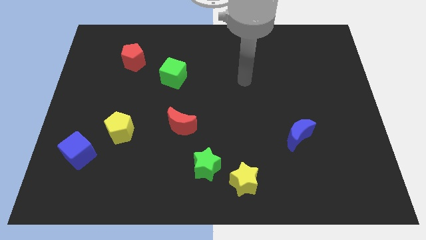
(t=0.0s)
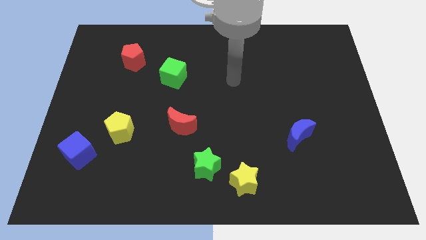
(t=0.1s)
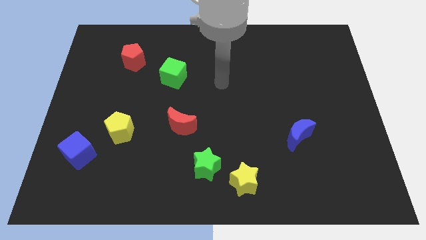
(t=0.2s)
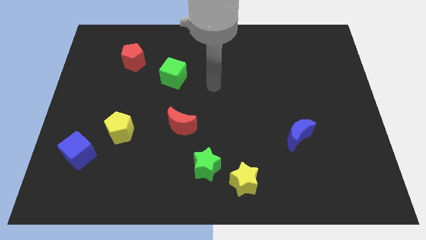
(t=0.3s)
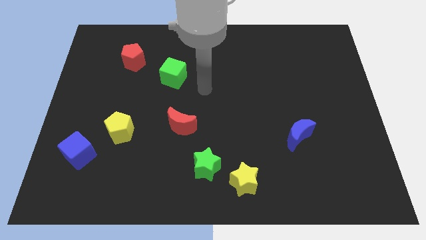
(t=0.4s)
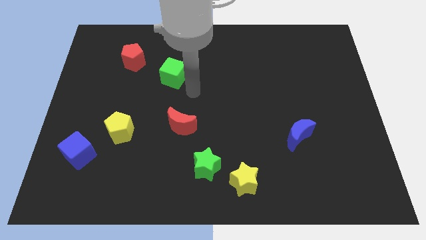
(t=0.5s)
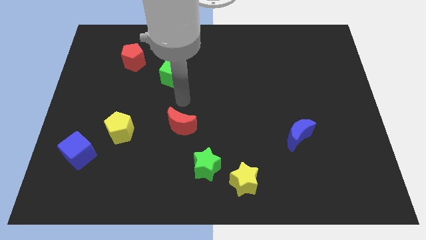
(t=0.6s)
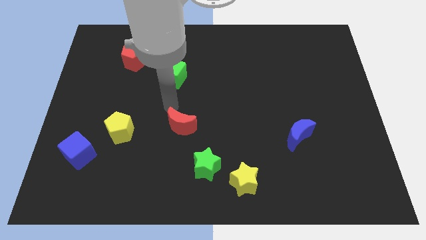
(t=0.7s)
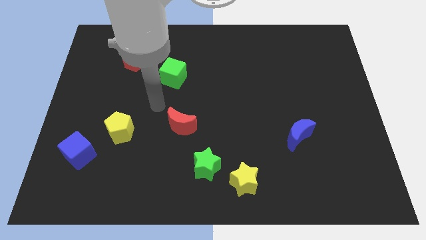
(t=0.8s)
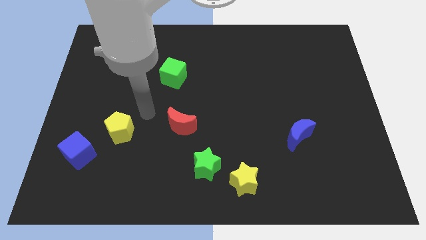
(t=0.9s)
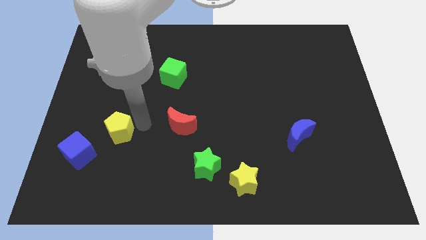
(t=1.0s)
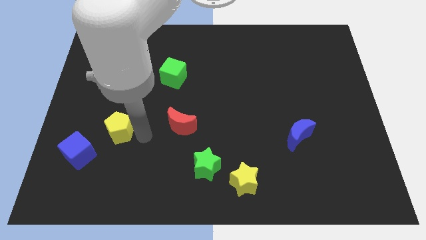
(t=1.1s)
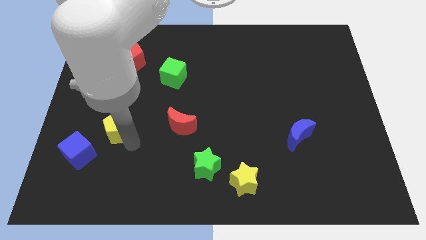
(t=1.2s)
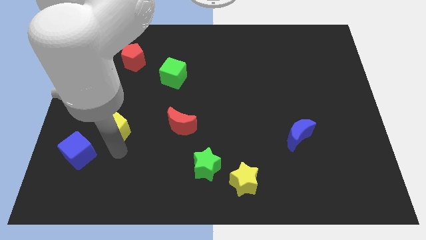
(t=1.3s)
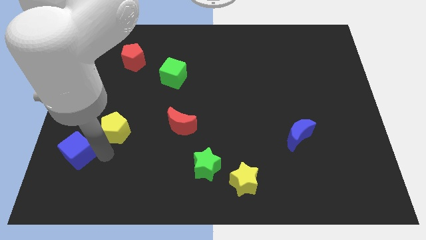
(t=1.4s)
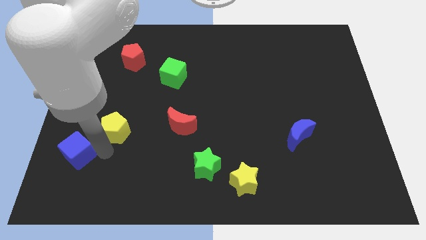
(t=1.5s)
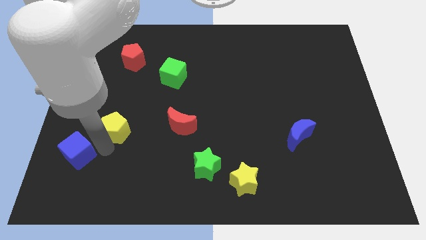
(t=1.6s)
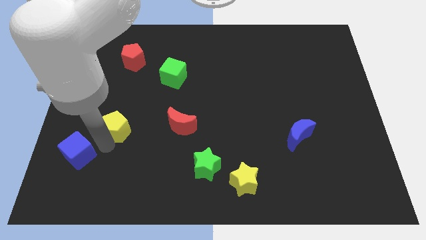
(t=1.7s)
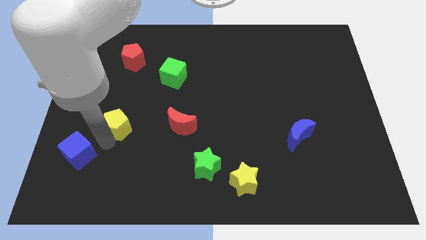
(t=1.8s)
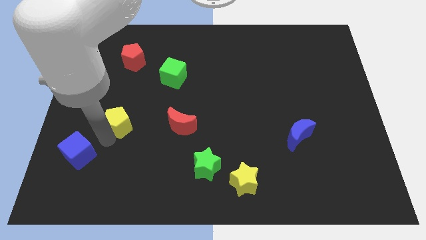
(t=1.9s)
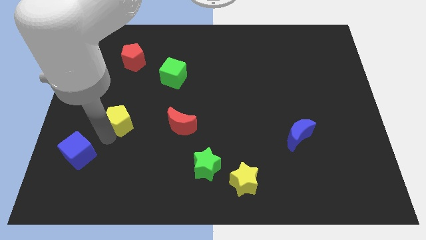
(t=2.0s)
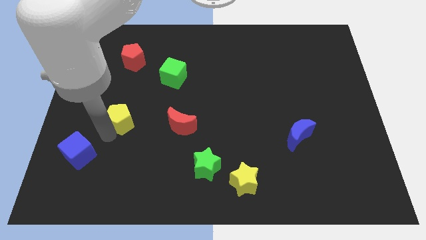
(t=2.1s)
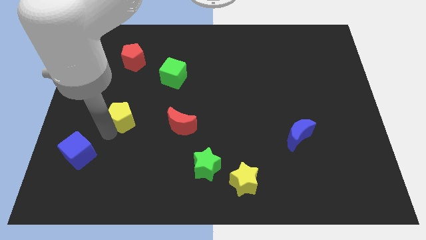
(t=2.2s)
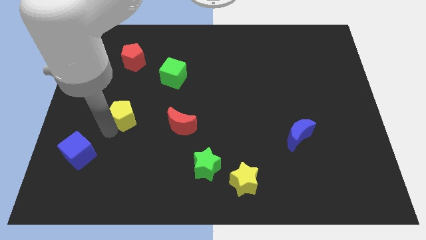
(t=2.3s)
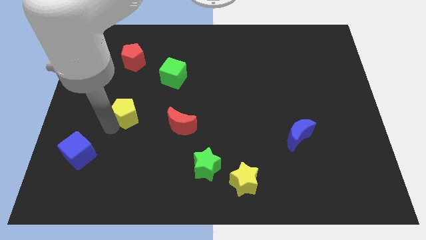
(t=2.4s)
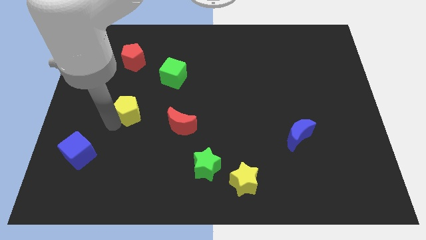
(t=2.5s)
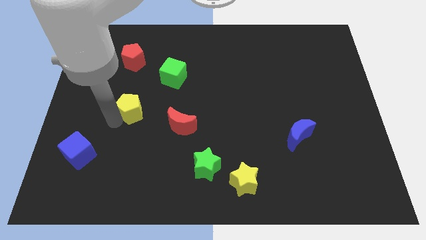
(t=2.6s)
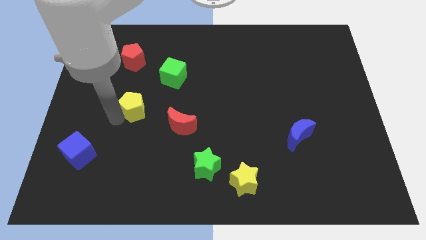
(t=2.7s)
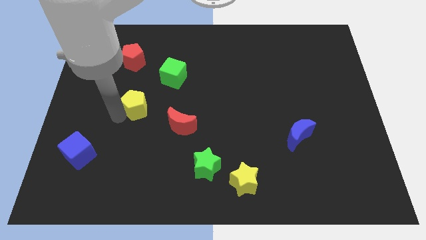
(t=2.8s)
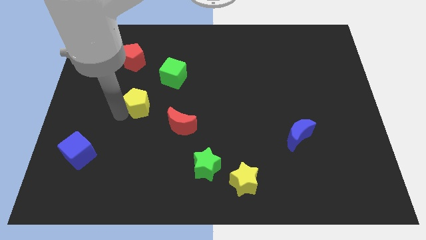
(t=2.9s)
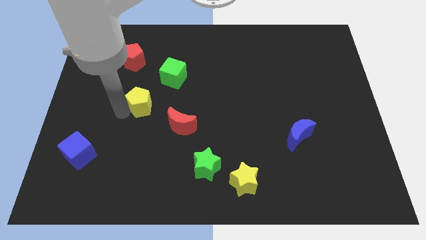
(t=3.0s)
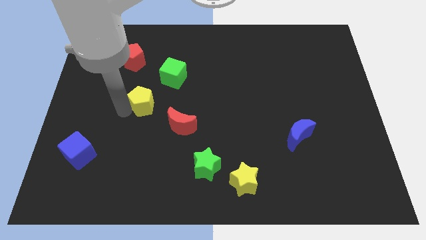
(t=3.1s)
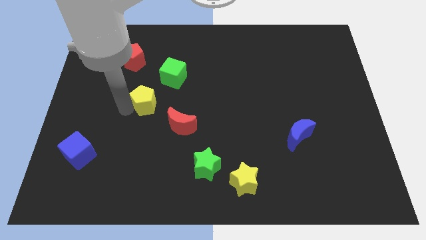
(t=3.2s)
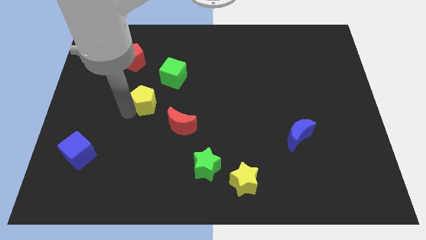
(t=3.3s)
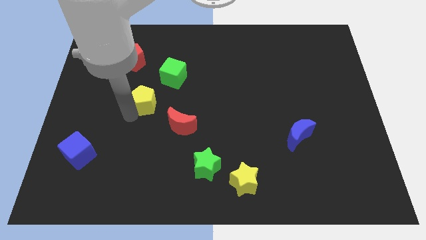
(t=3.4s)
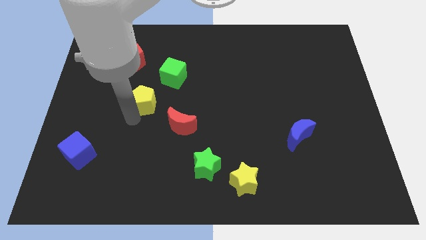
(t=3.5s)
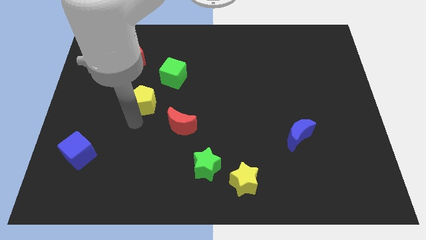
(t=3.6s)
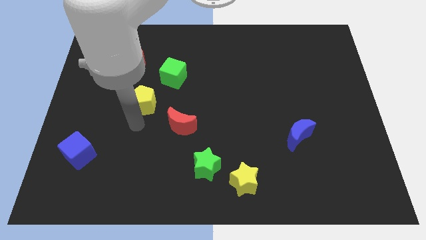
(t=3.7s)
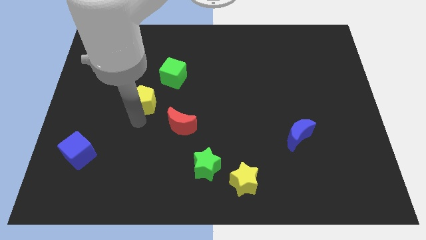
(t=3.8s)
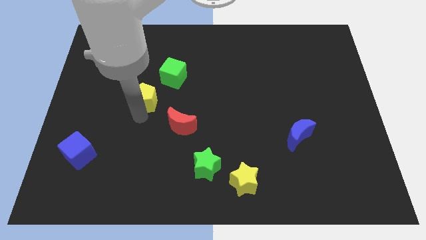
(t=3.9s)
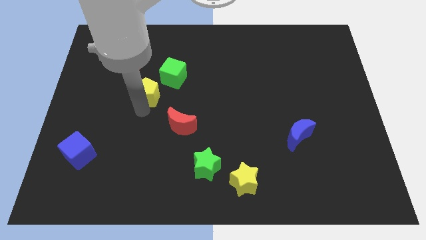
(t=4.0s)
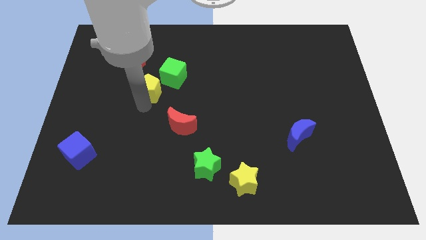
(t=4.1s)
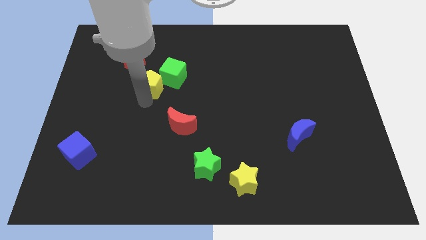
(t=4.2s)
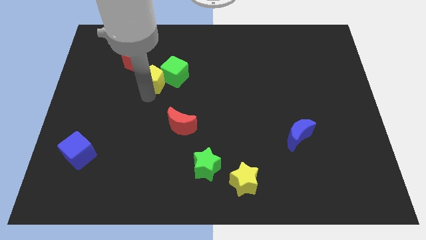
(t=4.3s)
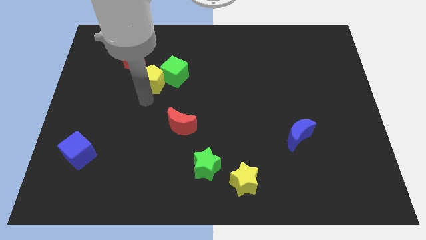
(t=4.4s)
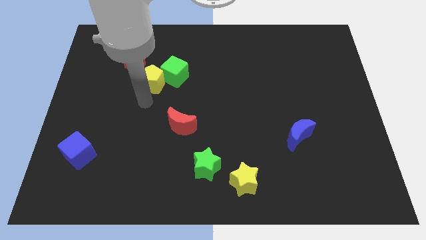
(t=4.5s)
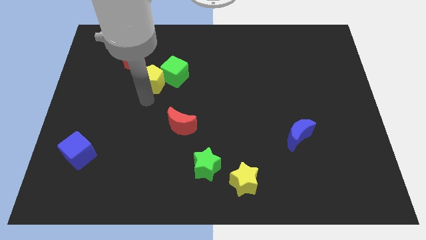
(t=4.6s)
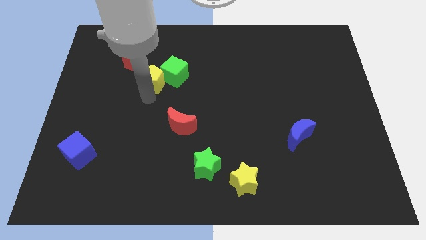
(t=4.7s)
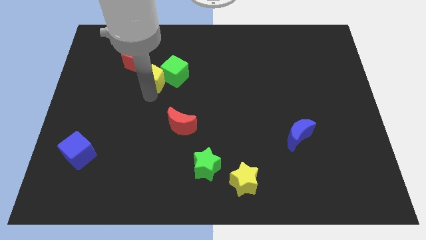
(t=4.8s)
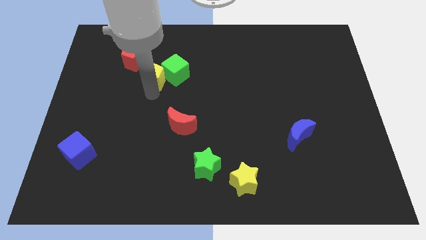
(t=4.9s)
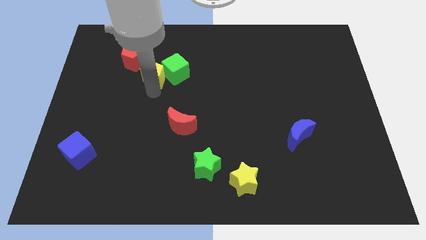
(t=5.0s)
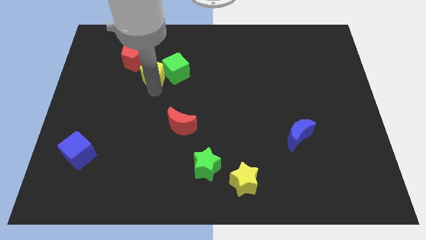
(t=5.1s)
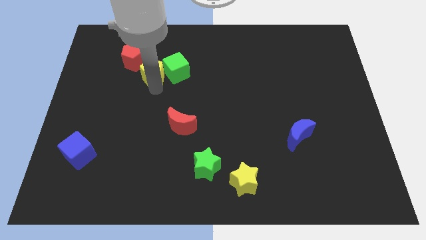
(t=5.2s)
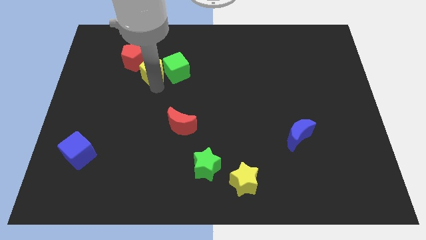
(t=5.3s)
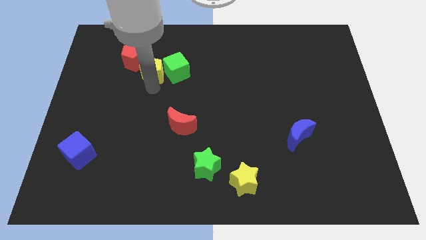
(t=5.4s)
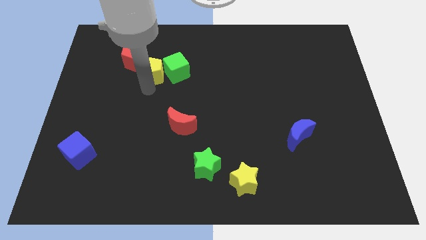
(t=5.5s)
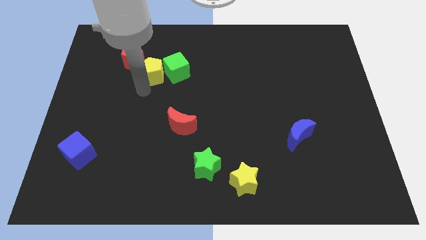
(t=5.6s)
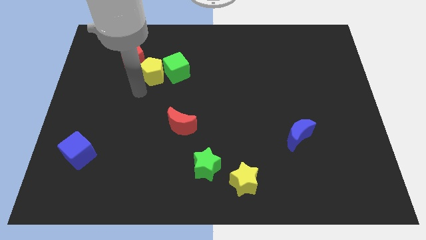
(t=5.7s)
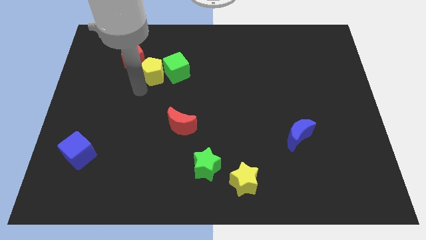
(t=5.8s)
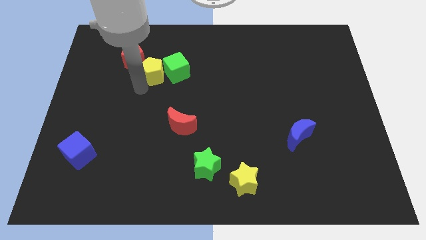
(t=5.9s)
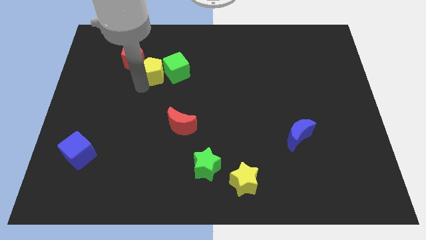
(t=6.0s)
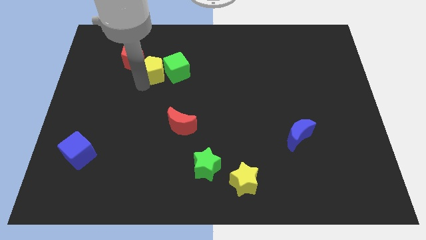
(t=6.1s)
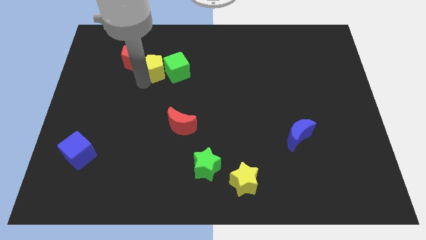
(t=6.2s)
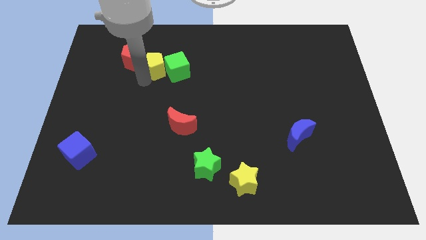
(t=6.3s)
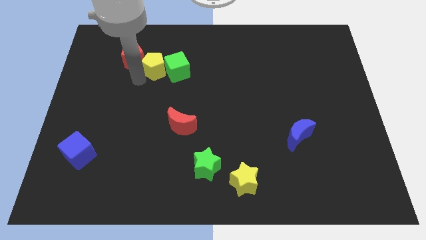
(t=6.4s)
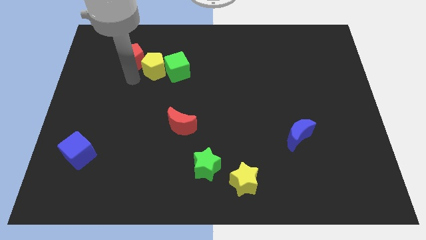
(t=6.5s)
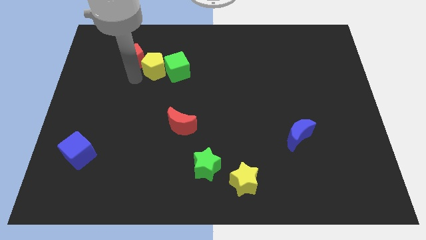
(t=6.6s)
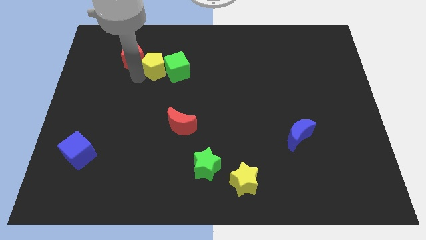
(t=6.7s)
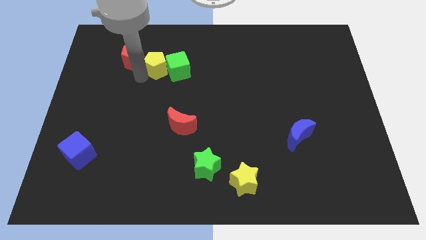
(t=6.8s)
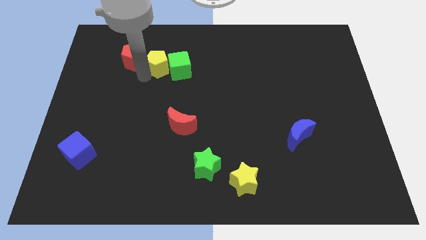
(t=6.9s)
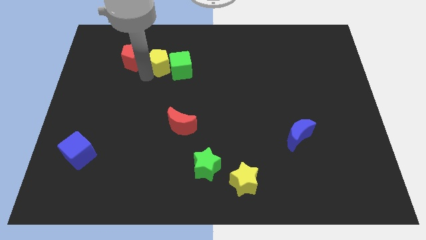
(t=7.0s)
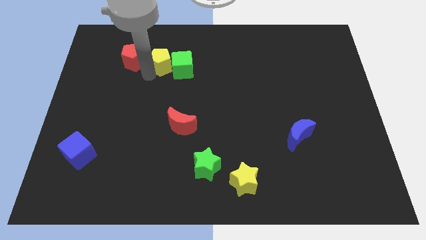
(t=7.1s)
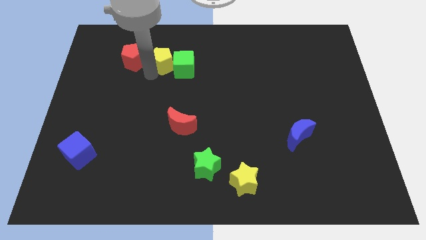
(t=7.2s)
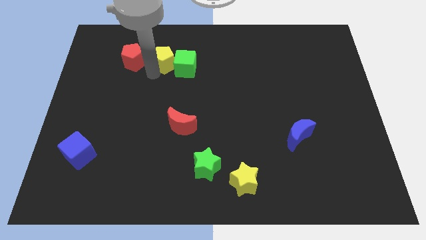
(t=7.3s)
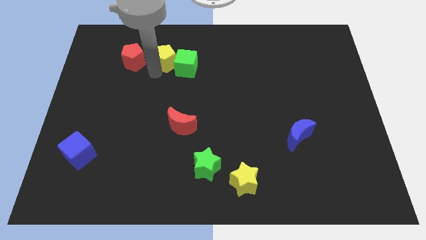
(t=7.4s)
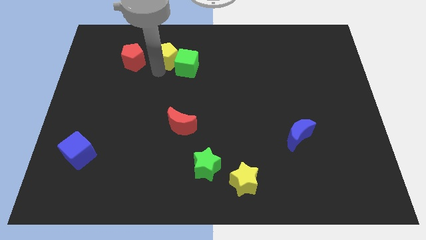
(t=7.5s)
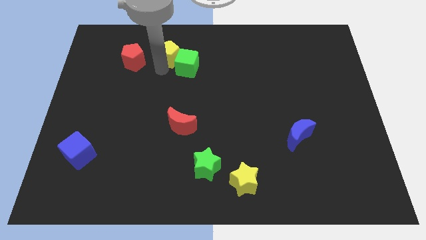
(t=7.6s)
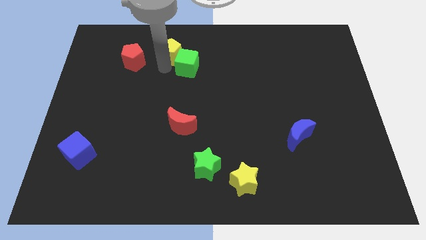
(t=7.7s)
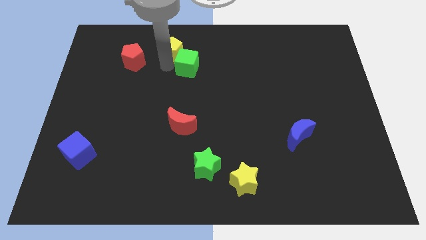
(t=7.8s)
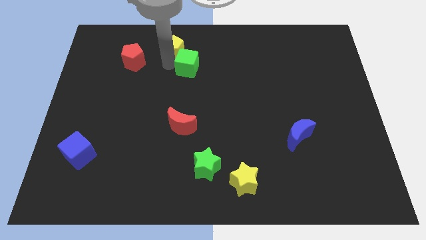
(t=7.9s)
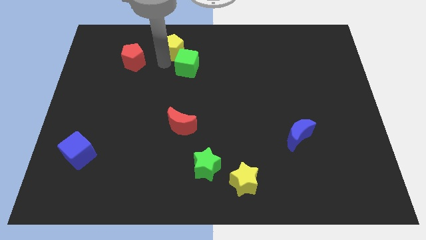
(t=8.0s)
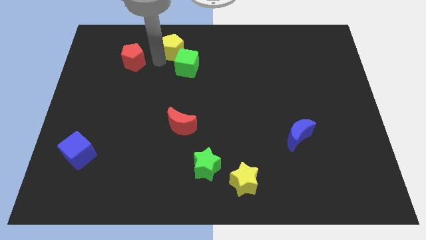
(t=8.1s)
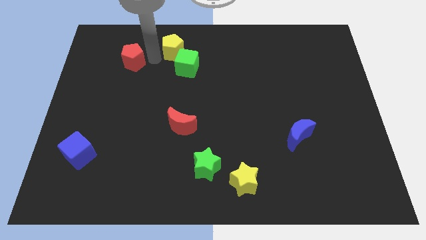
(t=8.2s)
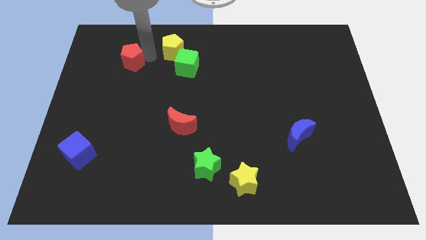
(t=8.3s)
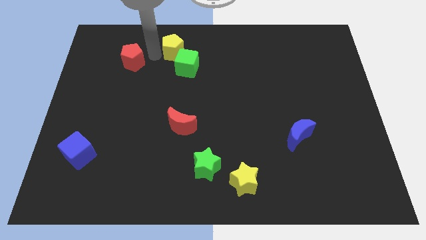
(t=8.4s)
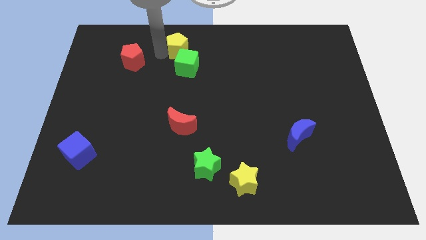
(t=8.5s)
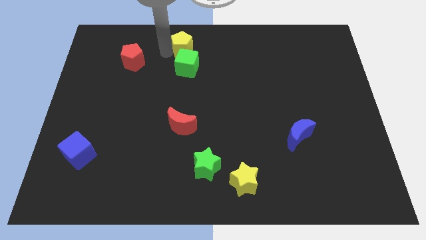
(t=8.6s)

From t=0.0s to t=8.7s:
move the yellow pentagon to the top side
